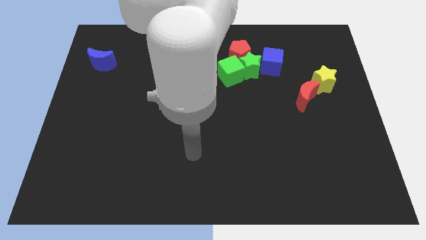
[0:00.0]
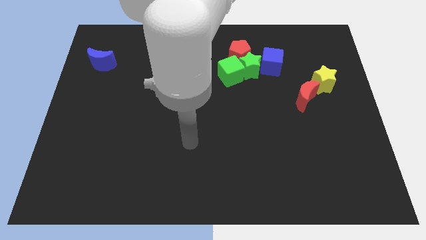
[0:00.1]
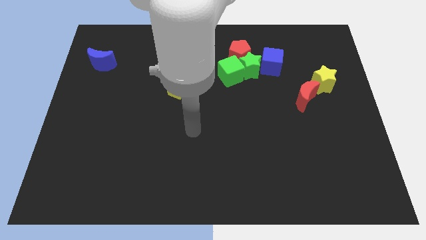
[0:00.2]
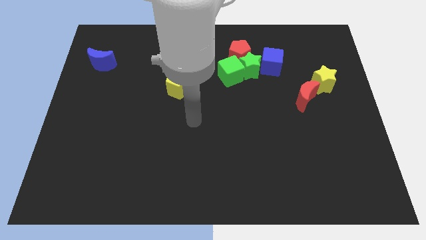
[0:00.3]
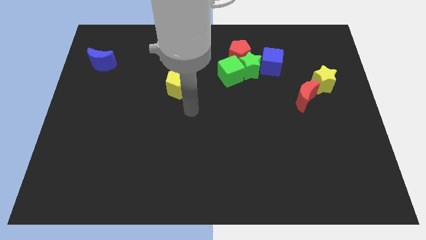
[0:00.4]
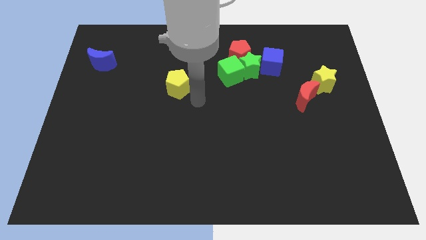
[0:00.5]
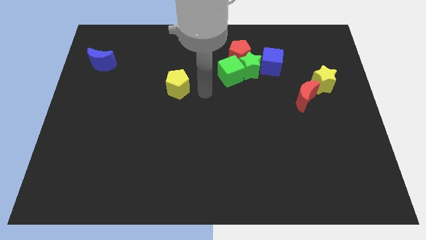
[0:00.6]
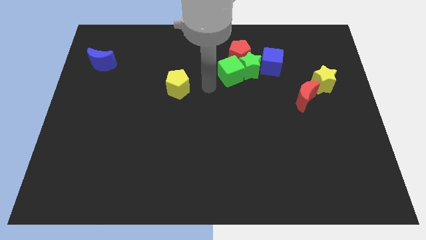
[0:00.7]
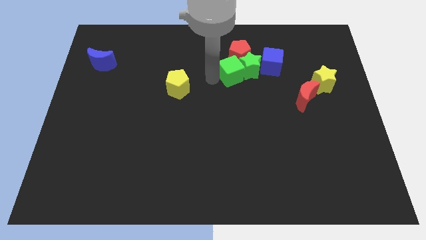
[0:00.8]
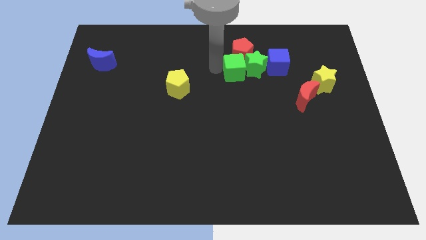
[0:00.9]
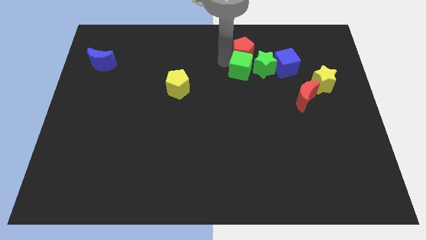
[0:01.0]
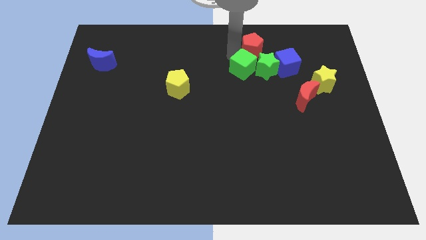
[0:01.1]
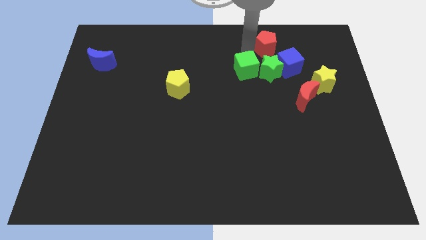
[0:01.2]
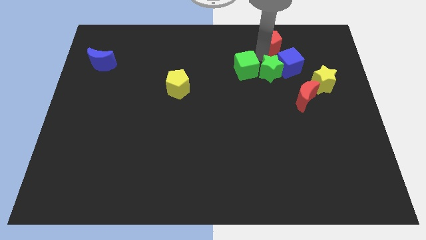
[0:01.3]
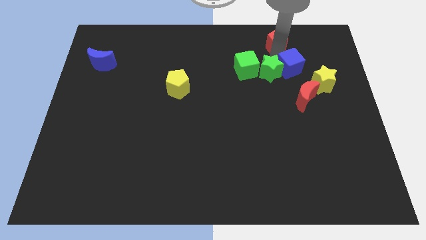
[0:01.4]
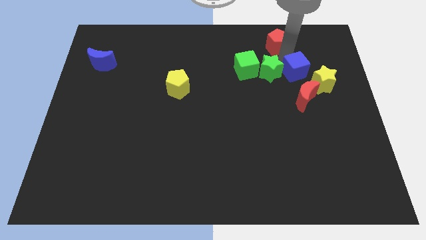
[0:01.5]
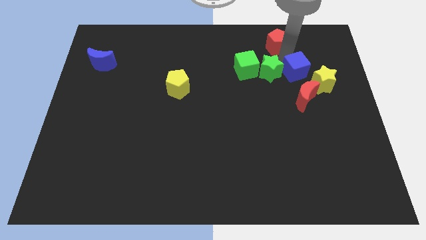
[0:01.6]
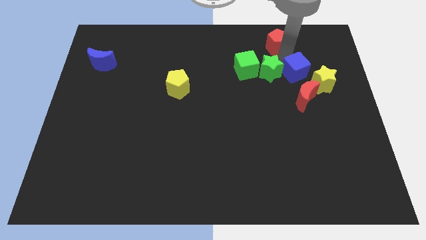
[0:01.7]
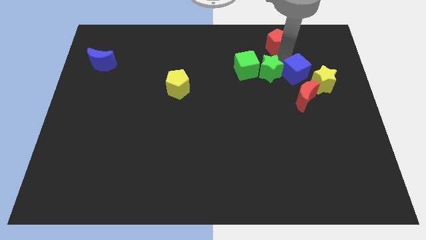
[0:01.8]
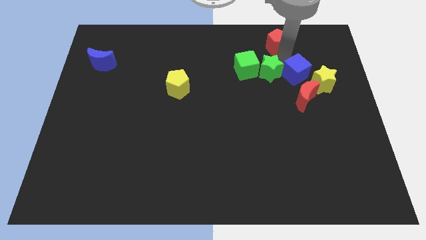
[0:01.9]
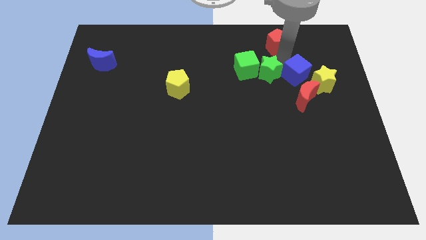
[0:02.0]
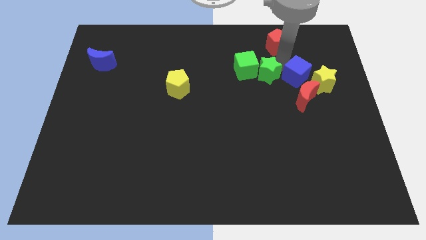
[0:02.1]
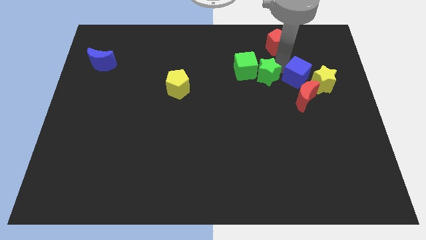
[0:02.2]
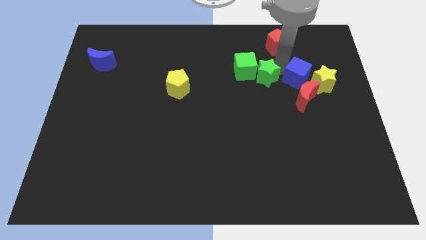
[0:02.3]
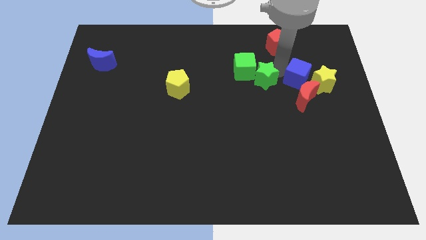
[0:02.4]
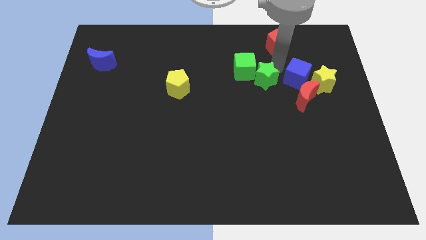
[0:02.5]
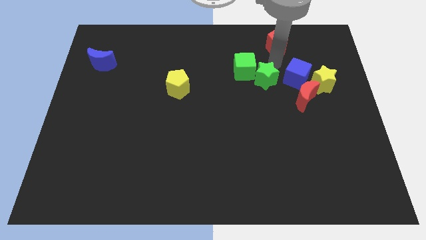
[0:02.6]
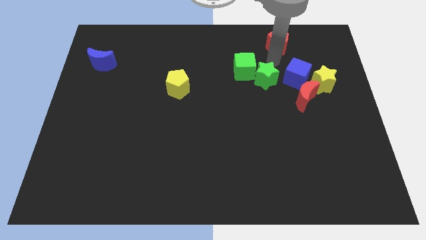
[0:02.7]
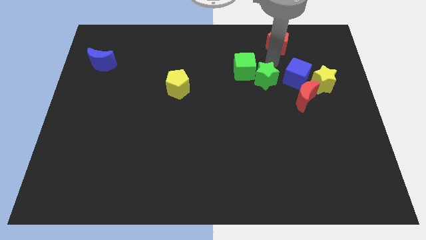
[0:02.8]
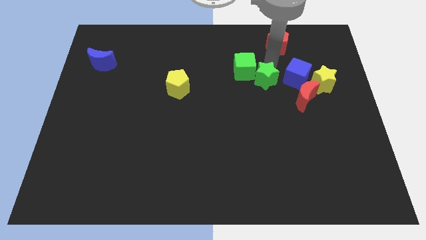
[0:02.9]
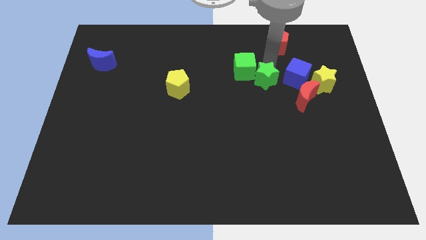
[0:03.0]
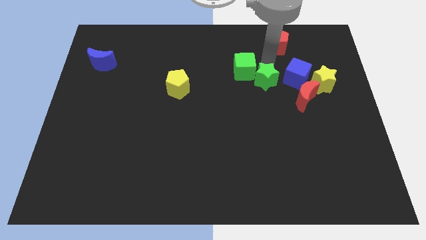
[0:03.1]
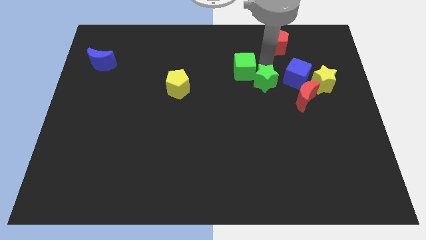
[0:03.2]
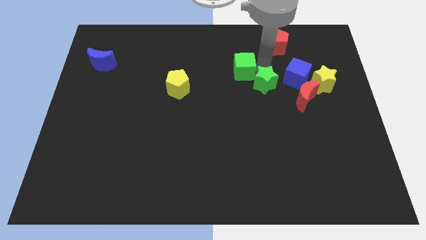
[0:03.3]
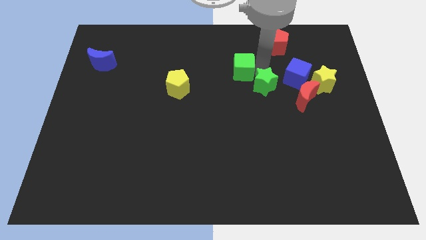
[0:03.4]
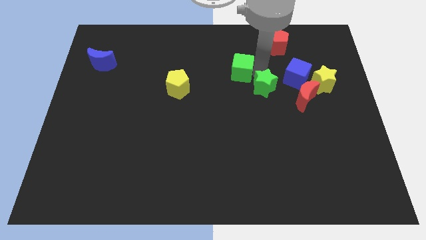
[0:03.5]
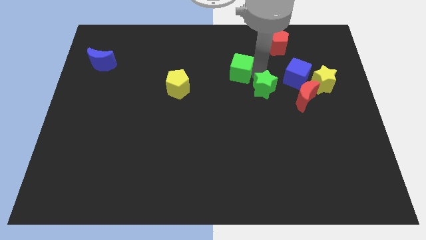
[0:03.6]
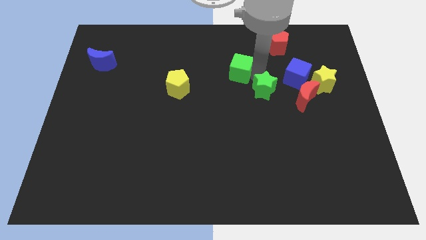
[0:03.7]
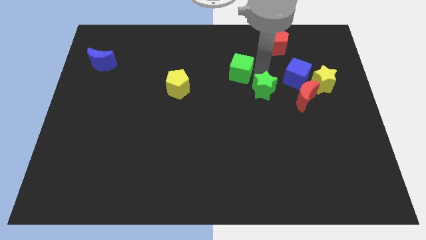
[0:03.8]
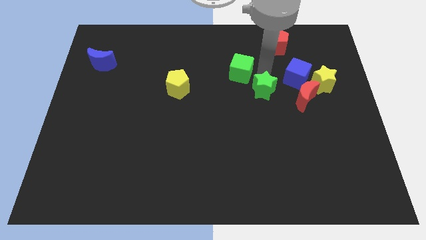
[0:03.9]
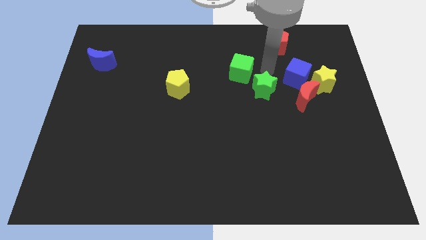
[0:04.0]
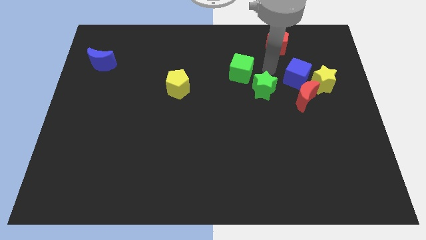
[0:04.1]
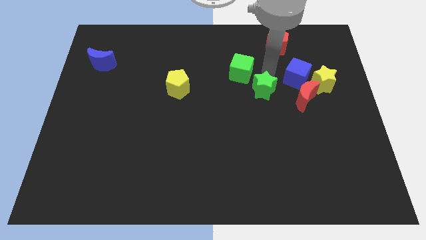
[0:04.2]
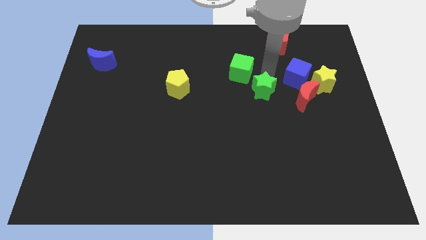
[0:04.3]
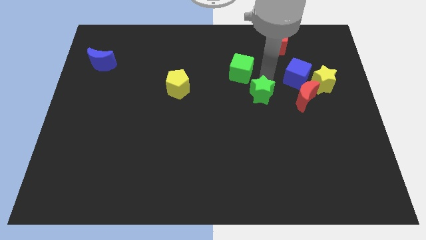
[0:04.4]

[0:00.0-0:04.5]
move the green star away from the red pentagon, green cube, and blue cube

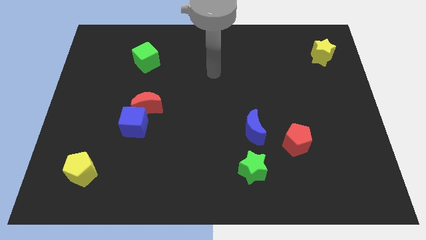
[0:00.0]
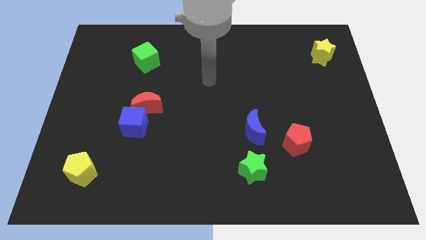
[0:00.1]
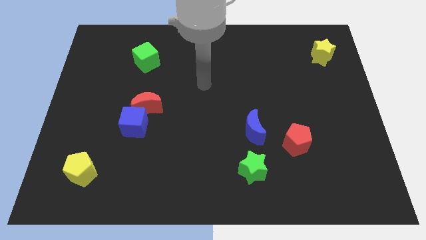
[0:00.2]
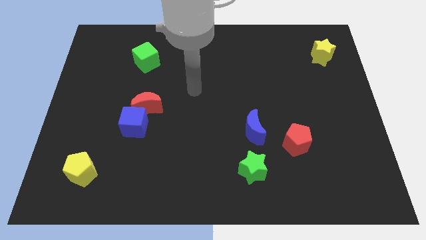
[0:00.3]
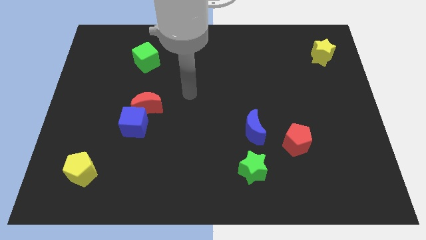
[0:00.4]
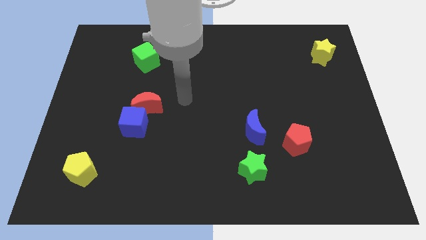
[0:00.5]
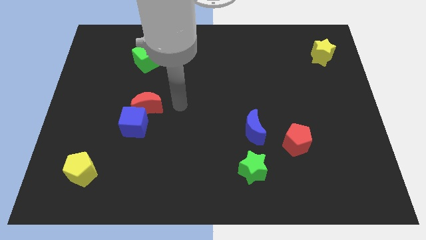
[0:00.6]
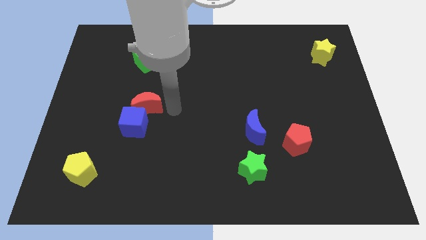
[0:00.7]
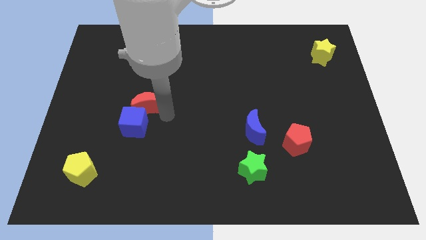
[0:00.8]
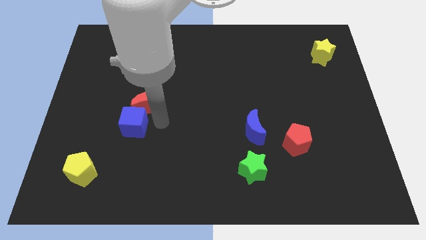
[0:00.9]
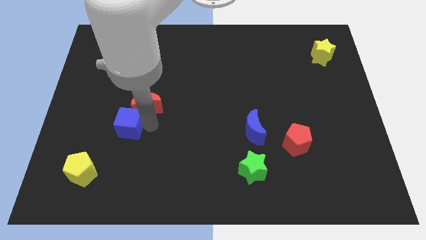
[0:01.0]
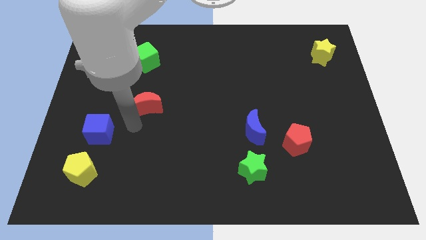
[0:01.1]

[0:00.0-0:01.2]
move the red moon away from the blue cube

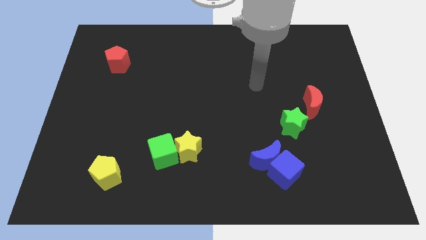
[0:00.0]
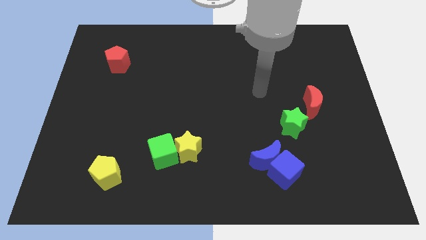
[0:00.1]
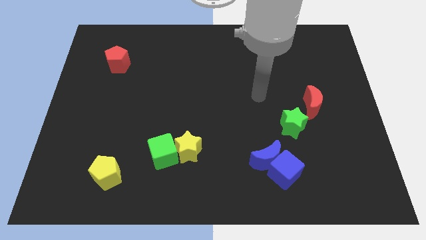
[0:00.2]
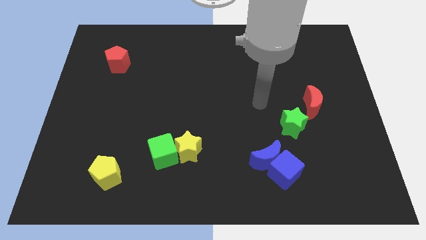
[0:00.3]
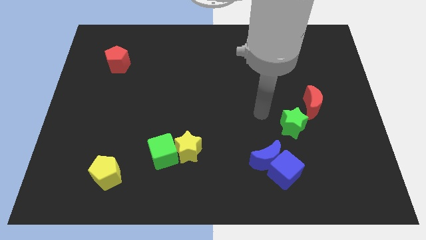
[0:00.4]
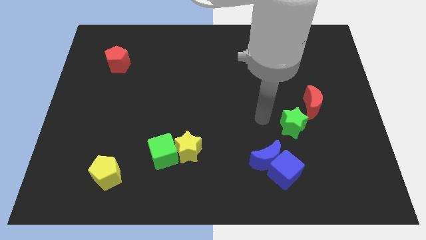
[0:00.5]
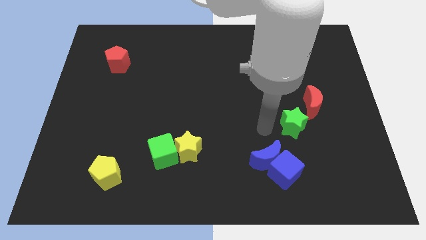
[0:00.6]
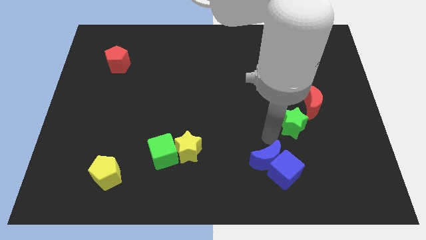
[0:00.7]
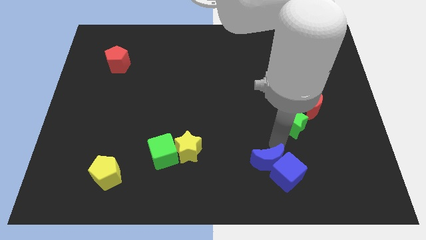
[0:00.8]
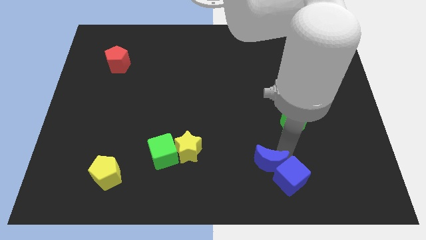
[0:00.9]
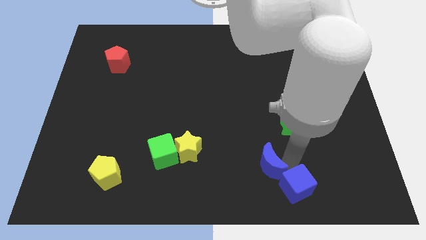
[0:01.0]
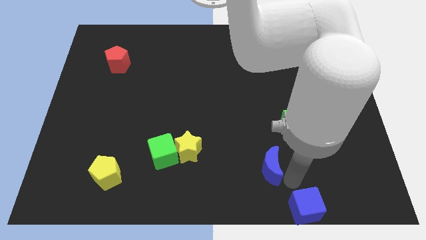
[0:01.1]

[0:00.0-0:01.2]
pull the blue moon apart from the blue cube

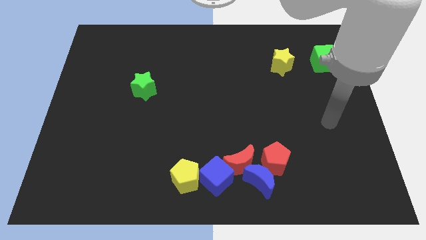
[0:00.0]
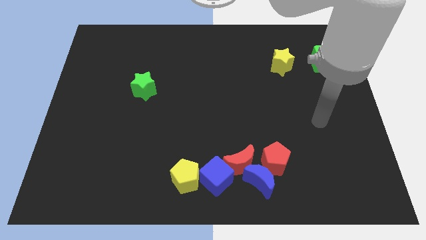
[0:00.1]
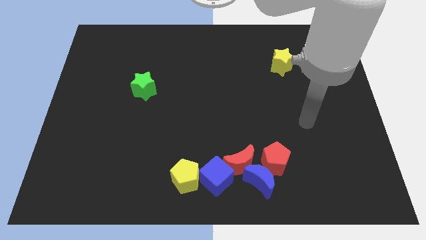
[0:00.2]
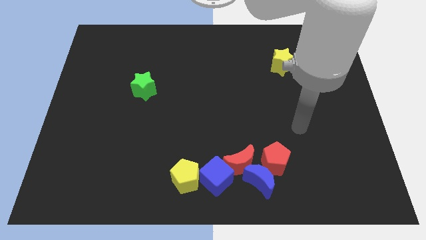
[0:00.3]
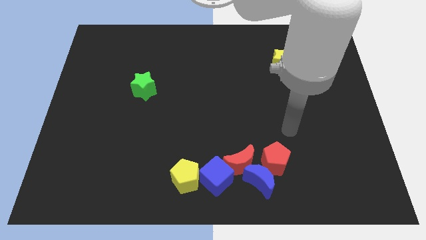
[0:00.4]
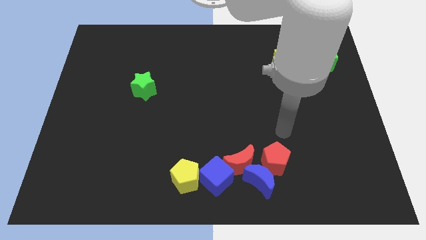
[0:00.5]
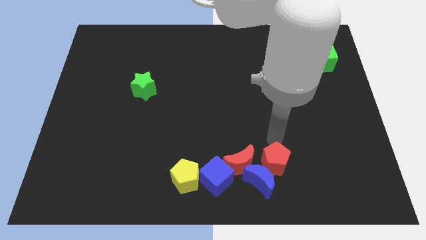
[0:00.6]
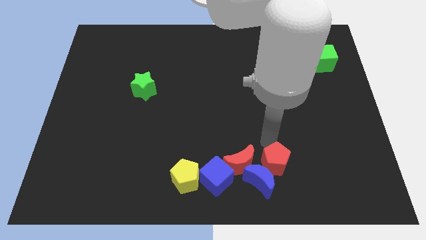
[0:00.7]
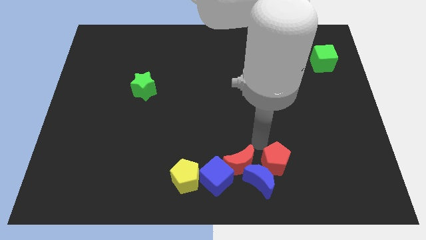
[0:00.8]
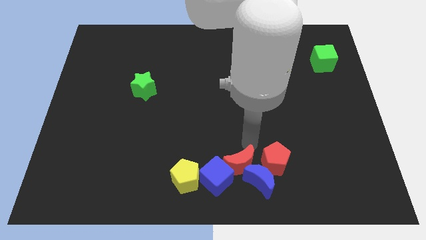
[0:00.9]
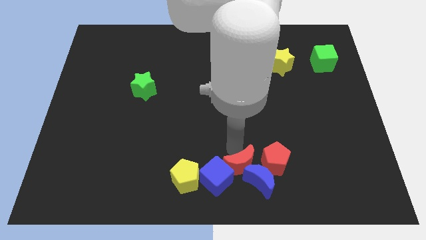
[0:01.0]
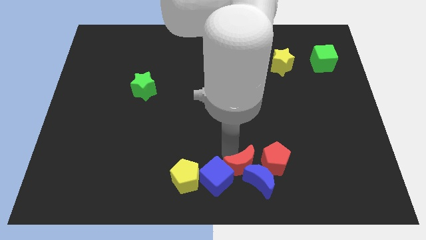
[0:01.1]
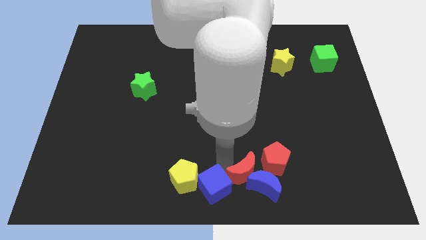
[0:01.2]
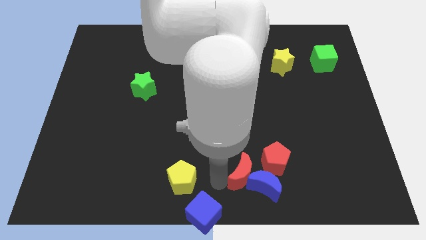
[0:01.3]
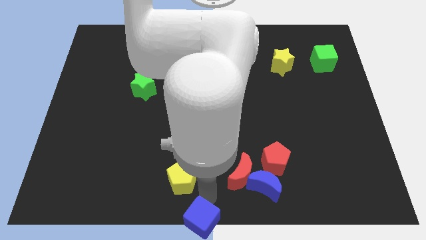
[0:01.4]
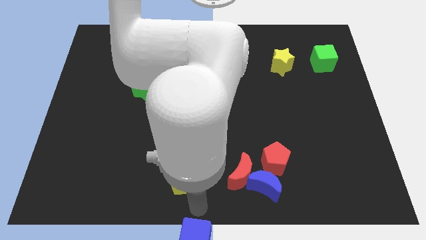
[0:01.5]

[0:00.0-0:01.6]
move the yellow pentagon away from the blue cube

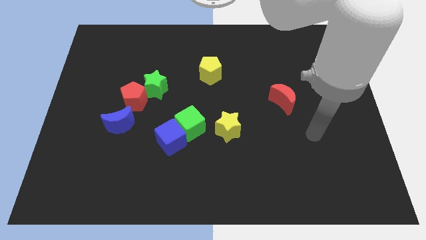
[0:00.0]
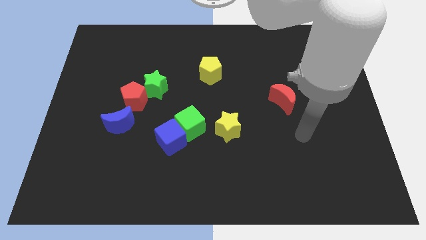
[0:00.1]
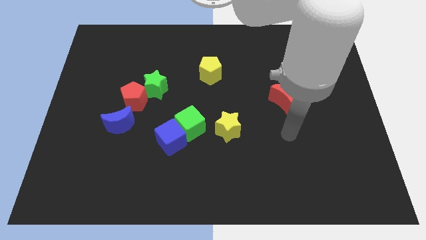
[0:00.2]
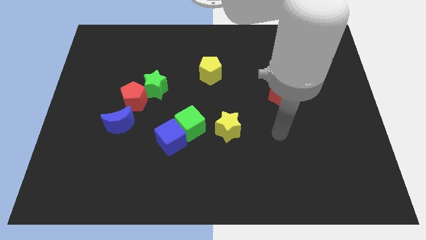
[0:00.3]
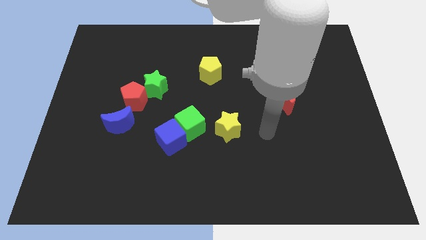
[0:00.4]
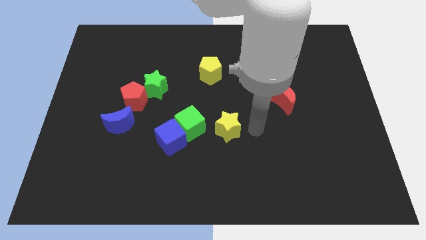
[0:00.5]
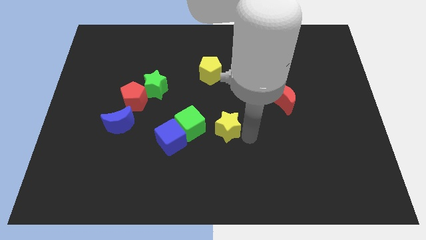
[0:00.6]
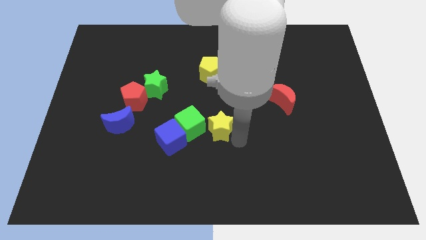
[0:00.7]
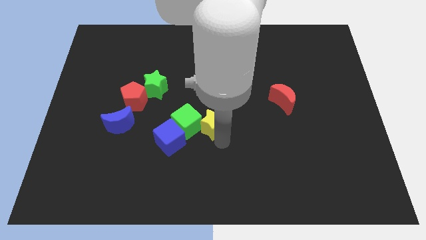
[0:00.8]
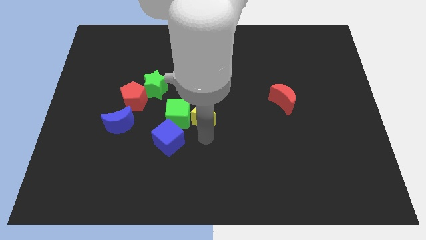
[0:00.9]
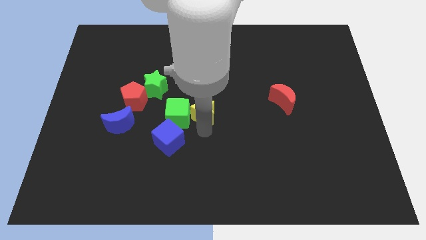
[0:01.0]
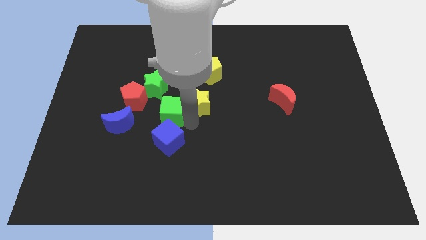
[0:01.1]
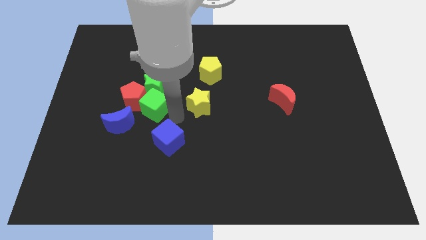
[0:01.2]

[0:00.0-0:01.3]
pull the blue cube apart from the green cube
